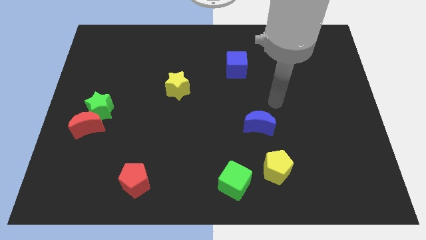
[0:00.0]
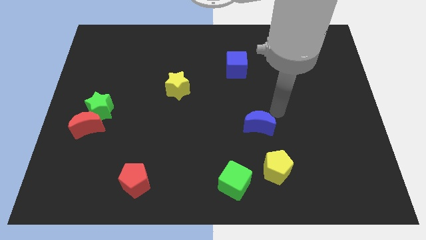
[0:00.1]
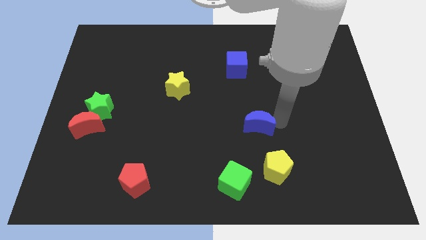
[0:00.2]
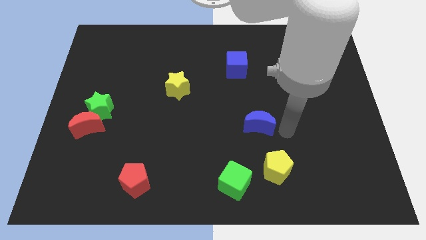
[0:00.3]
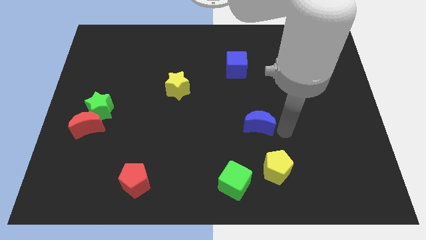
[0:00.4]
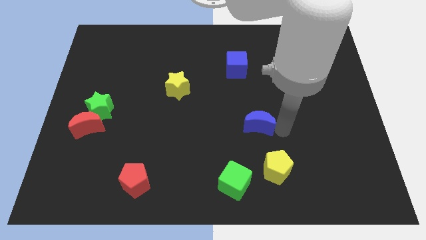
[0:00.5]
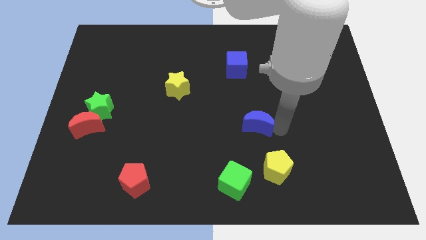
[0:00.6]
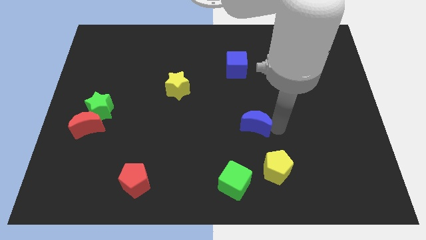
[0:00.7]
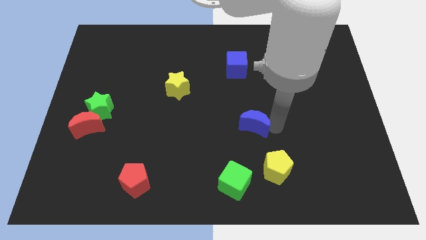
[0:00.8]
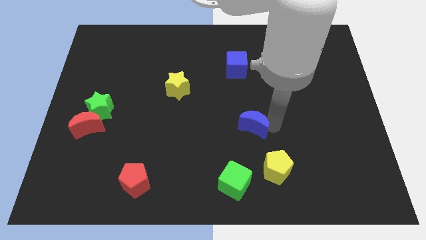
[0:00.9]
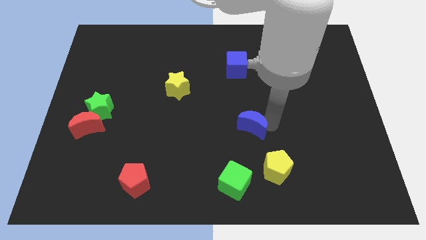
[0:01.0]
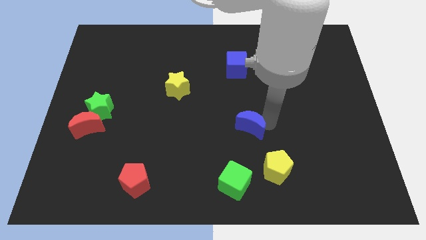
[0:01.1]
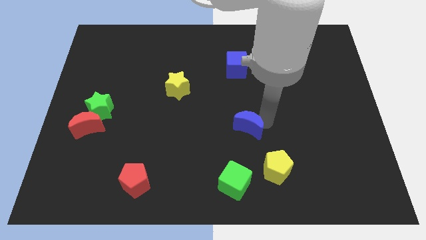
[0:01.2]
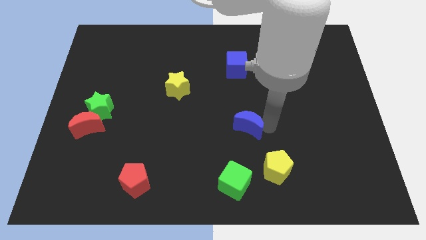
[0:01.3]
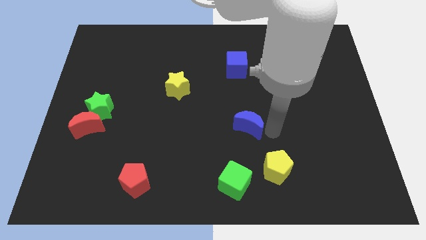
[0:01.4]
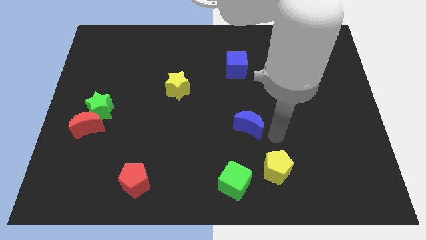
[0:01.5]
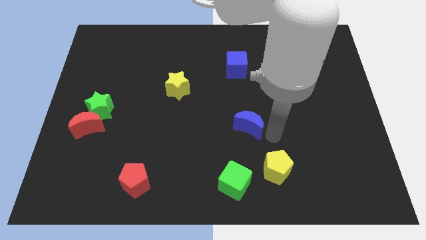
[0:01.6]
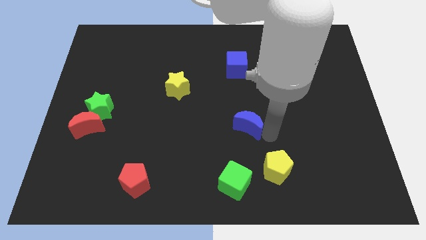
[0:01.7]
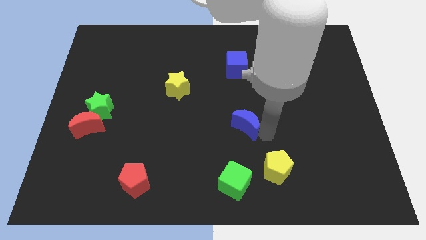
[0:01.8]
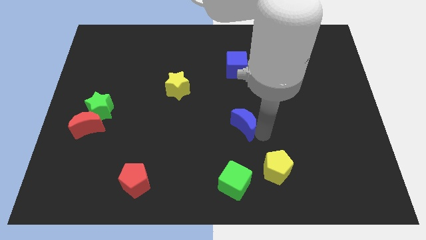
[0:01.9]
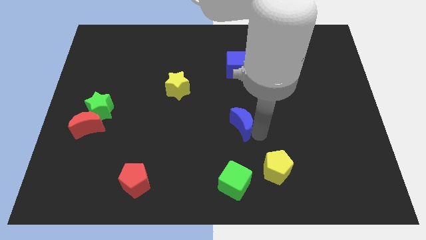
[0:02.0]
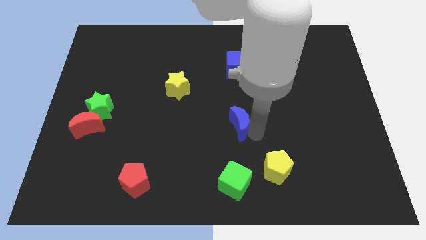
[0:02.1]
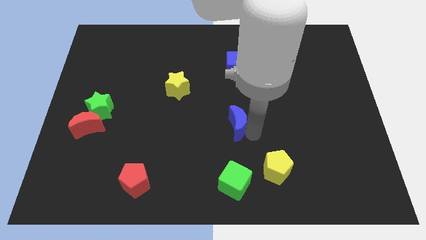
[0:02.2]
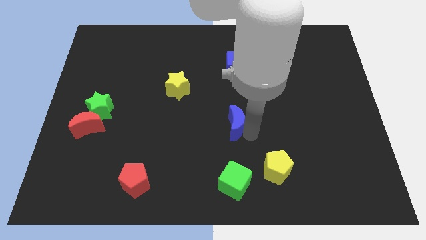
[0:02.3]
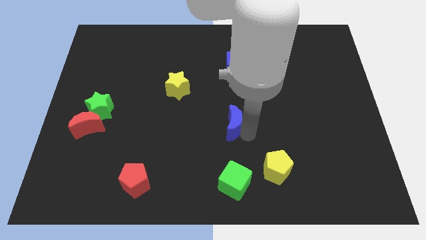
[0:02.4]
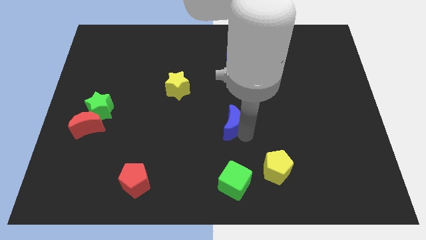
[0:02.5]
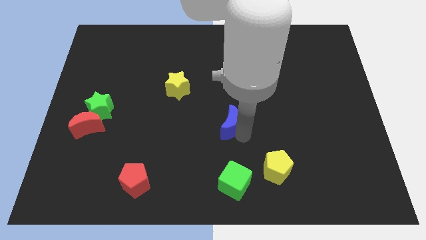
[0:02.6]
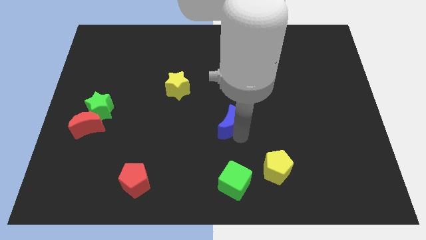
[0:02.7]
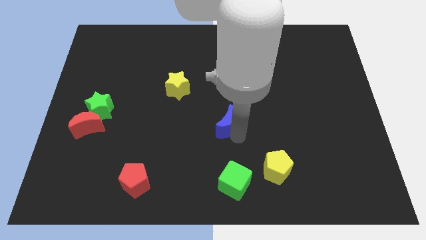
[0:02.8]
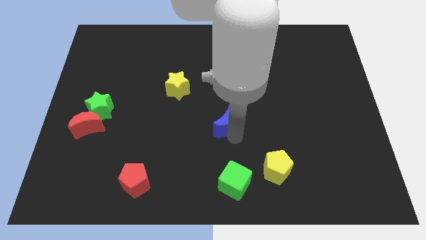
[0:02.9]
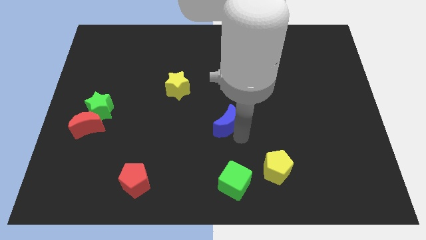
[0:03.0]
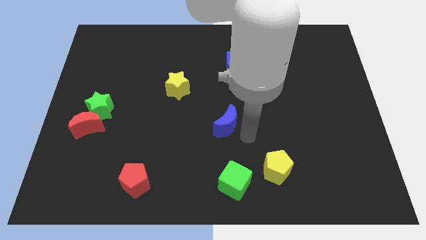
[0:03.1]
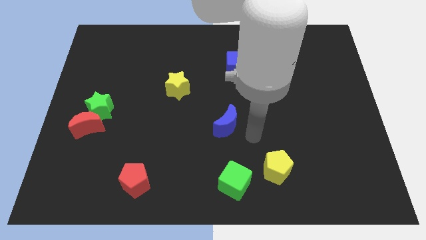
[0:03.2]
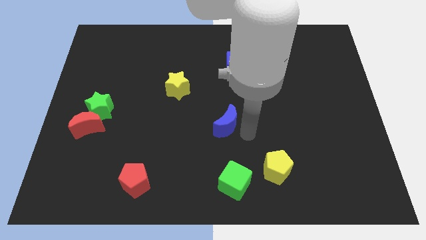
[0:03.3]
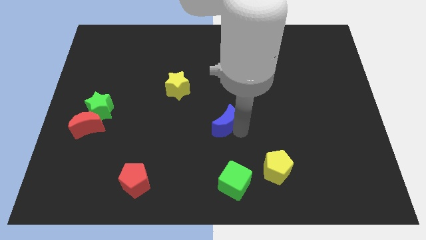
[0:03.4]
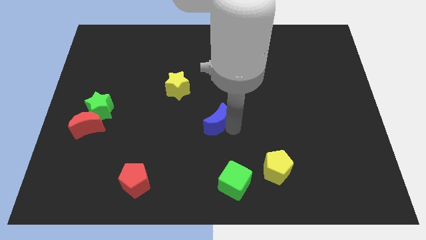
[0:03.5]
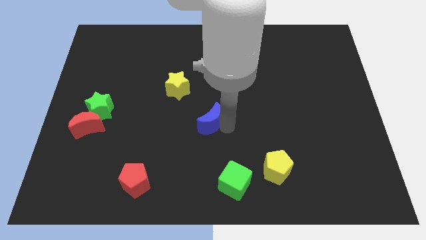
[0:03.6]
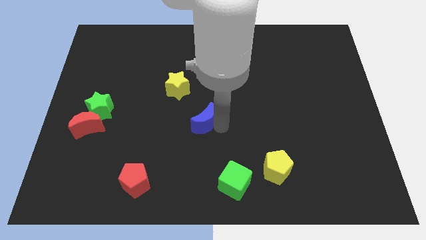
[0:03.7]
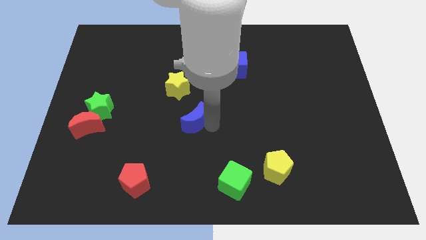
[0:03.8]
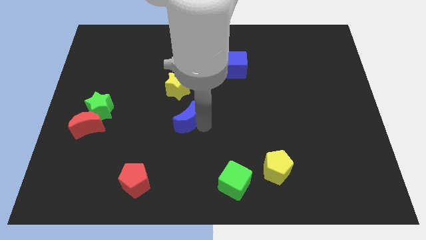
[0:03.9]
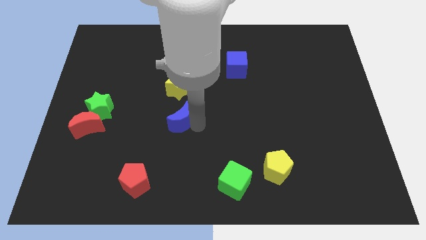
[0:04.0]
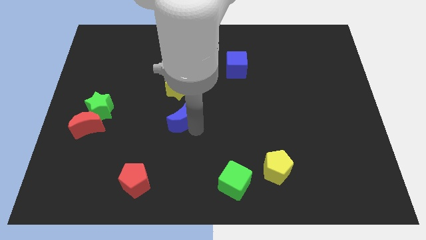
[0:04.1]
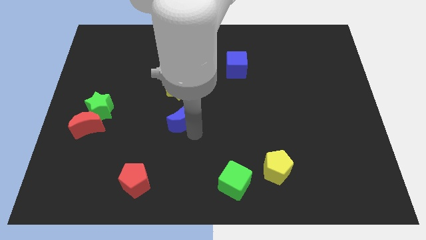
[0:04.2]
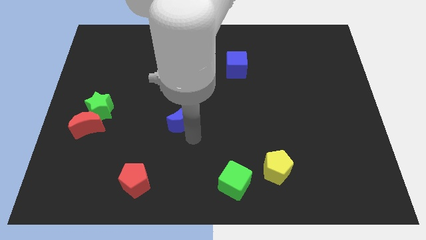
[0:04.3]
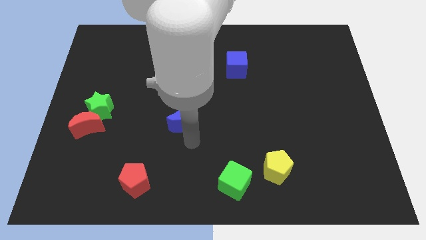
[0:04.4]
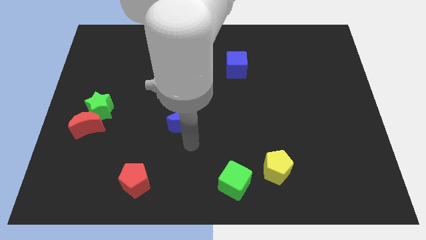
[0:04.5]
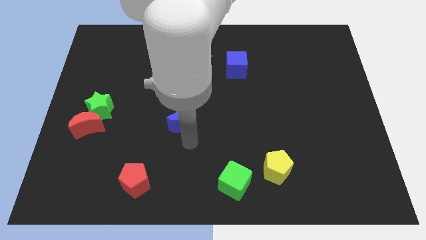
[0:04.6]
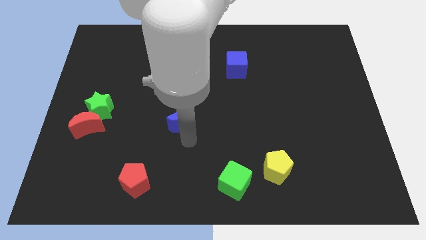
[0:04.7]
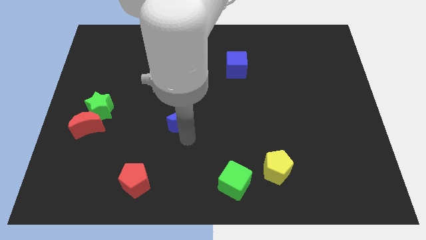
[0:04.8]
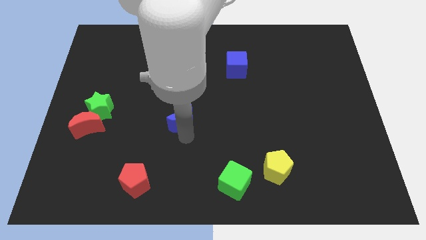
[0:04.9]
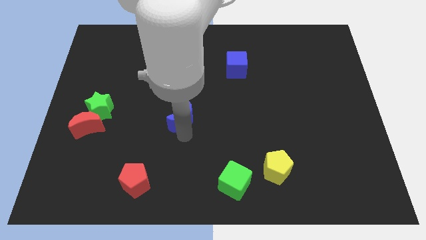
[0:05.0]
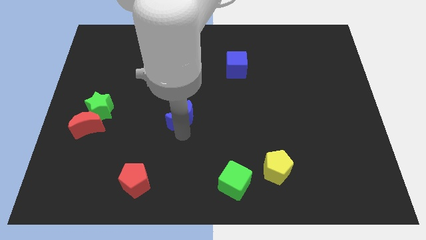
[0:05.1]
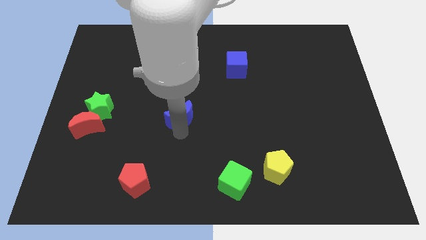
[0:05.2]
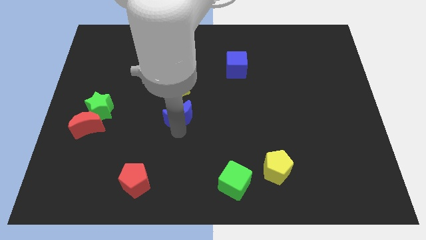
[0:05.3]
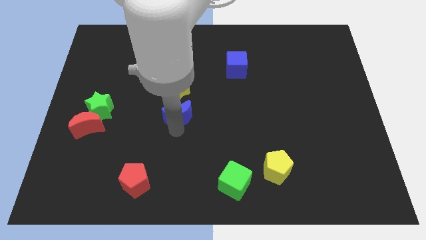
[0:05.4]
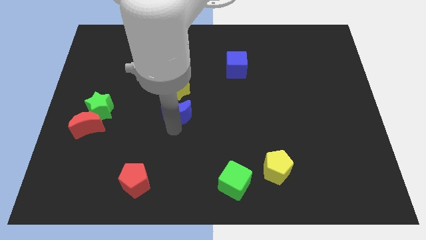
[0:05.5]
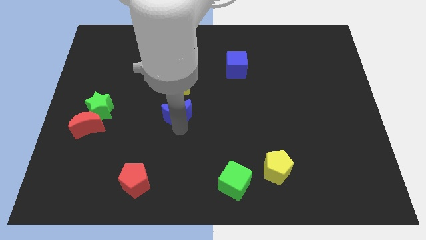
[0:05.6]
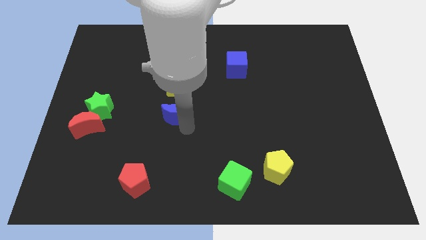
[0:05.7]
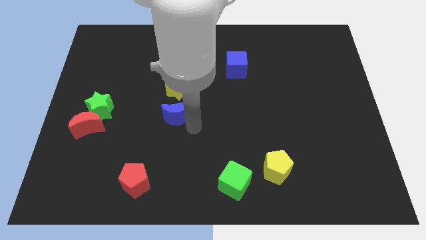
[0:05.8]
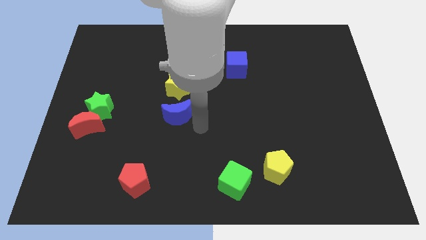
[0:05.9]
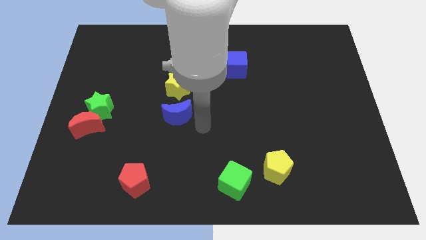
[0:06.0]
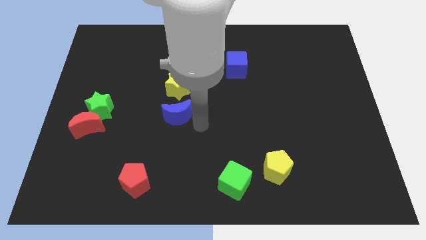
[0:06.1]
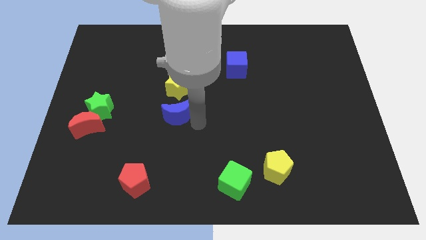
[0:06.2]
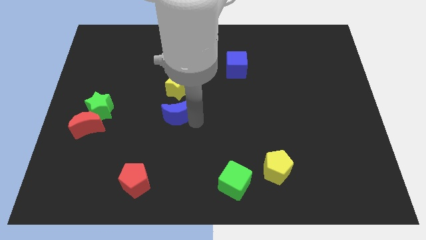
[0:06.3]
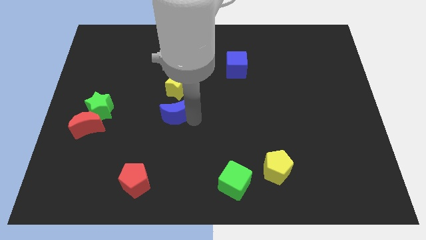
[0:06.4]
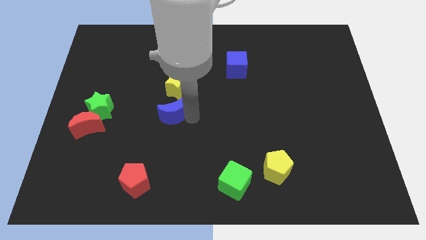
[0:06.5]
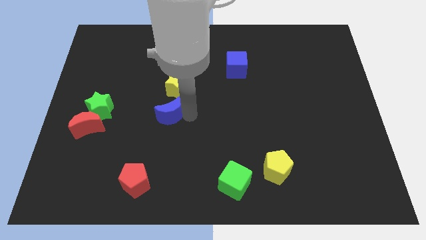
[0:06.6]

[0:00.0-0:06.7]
push the blue moon to the bottom left side of the yellow star
